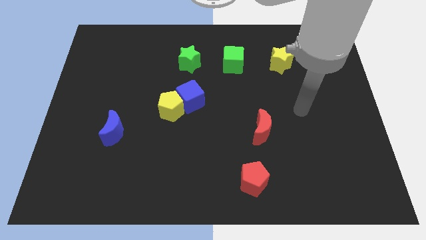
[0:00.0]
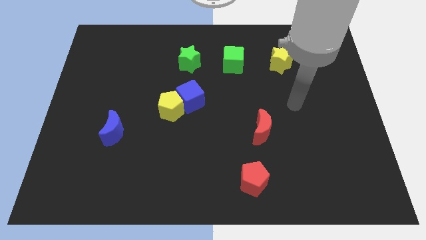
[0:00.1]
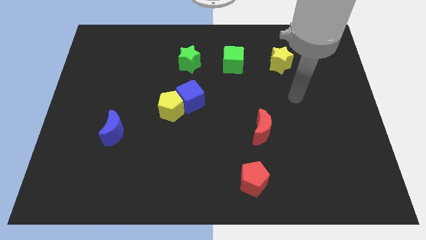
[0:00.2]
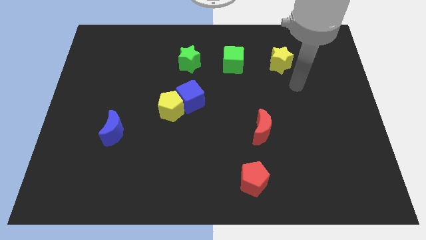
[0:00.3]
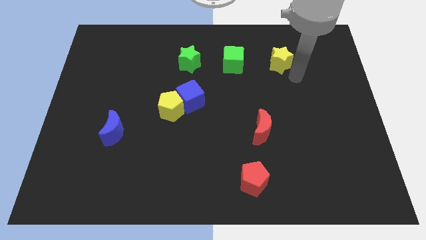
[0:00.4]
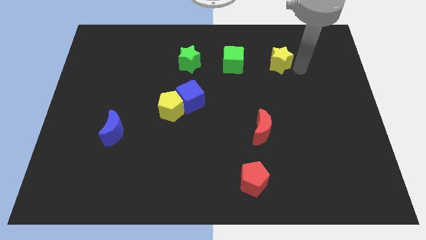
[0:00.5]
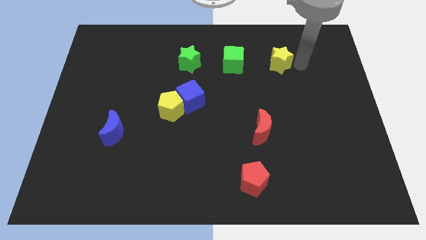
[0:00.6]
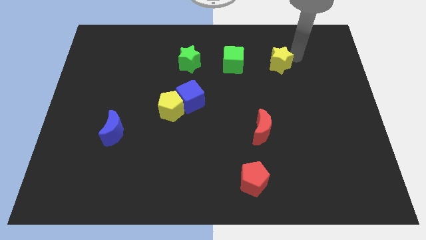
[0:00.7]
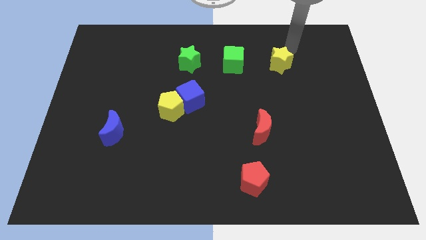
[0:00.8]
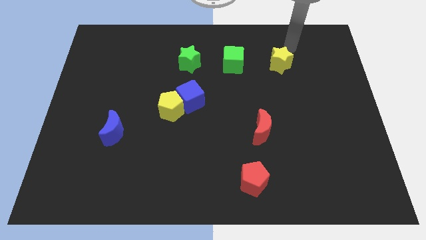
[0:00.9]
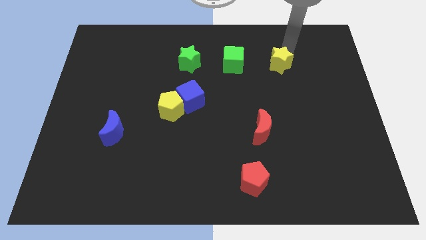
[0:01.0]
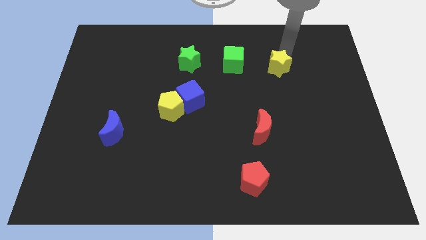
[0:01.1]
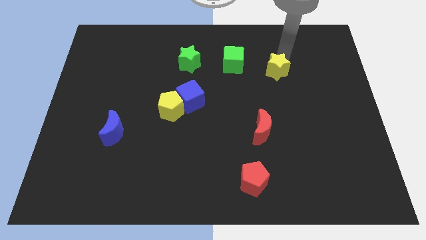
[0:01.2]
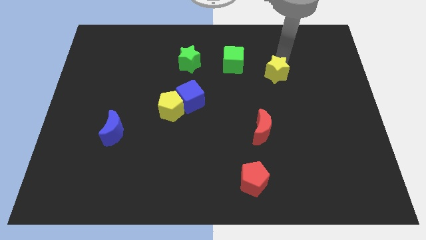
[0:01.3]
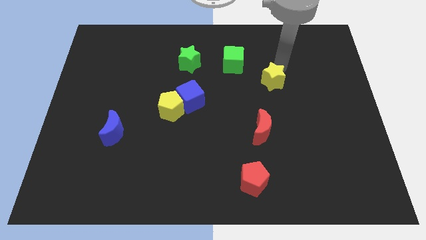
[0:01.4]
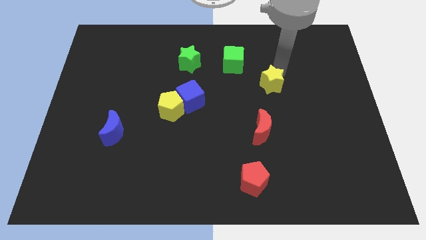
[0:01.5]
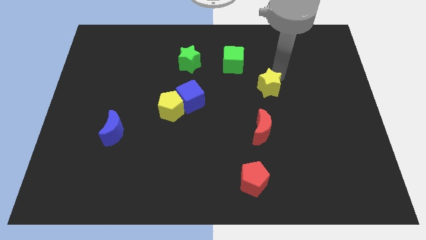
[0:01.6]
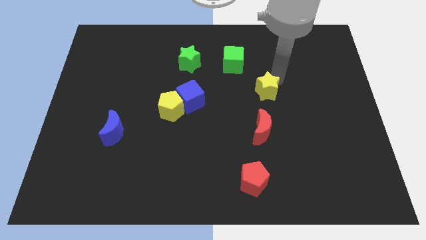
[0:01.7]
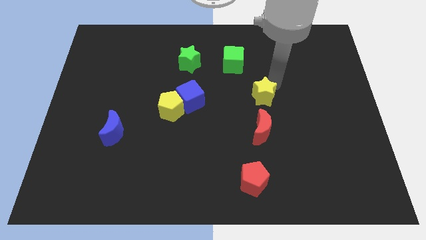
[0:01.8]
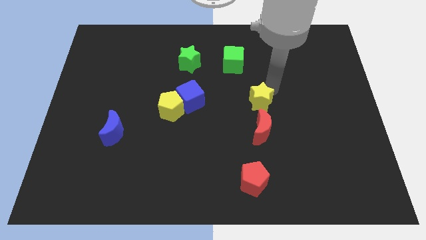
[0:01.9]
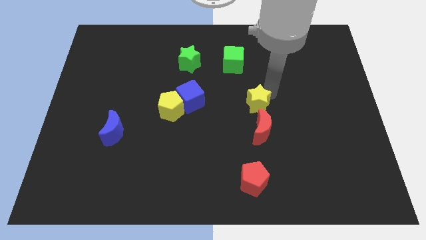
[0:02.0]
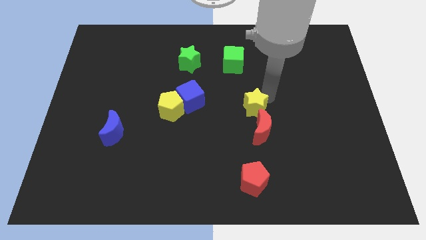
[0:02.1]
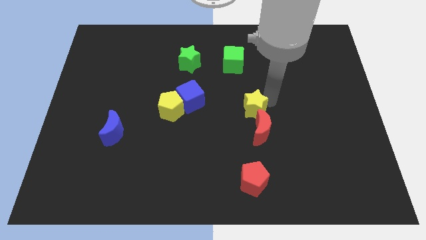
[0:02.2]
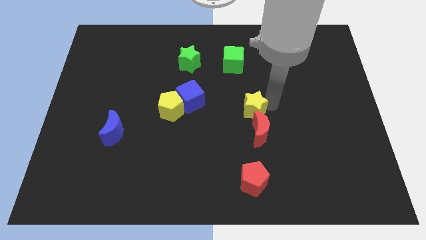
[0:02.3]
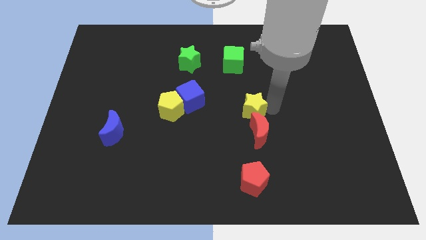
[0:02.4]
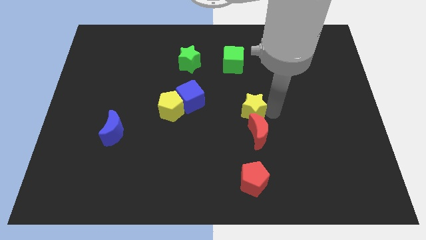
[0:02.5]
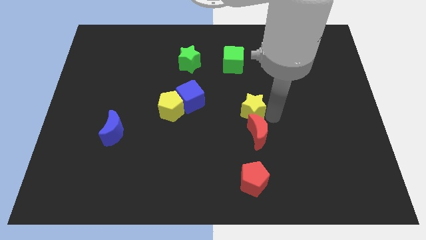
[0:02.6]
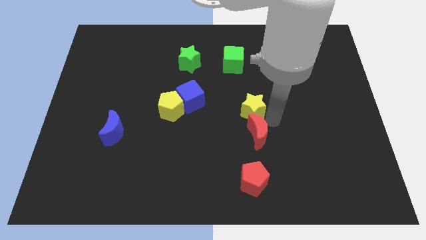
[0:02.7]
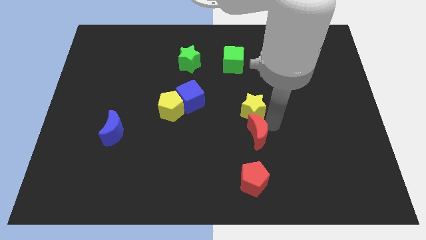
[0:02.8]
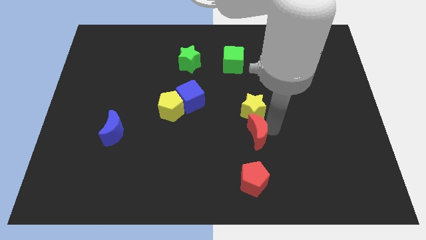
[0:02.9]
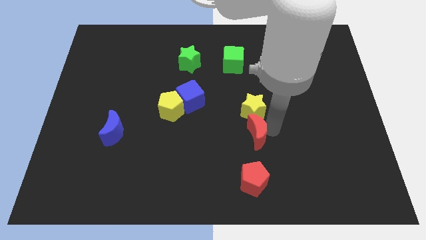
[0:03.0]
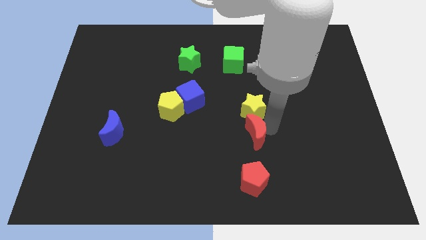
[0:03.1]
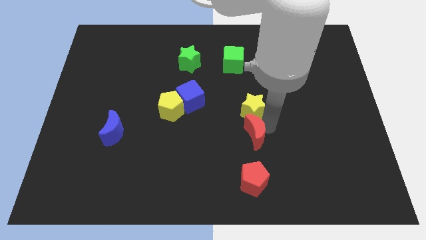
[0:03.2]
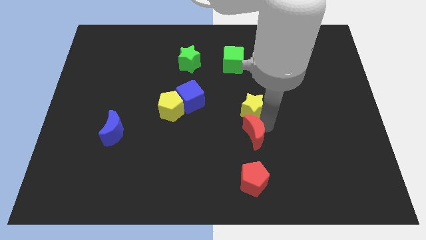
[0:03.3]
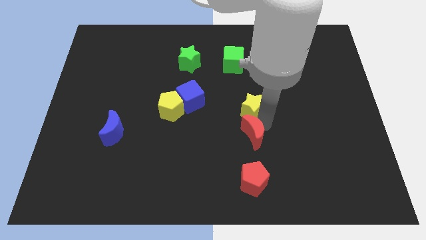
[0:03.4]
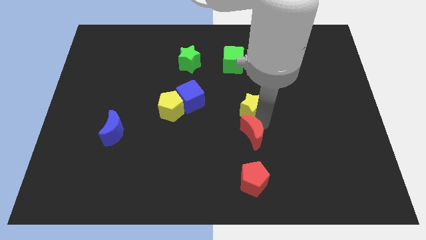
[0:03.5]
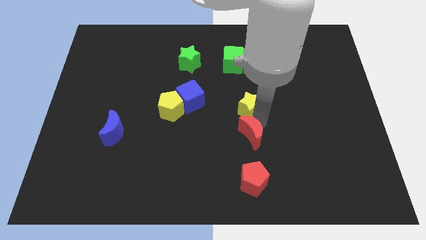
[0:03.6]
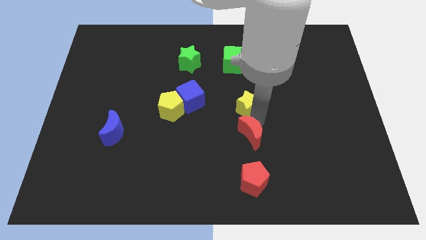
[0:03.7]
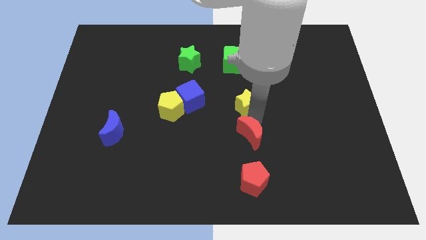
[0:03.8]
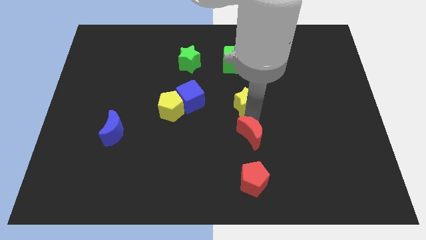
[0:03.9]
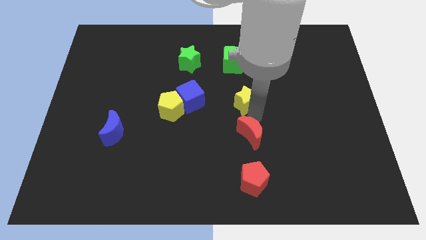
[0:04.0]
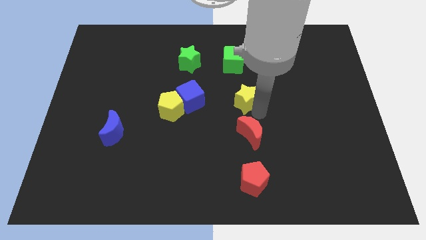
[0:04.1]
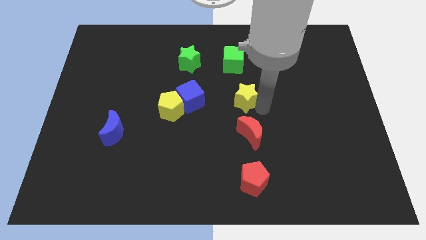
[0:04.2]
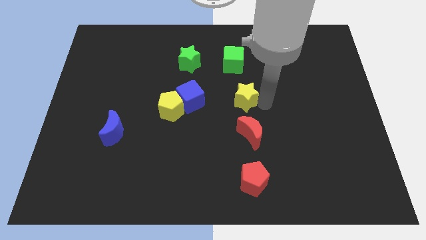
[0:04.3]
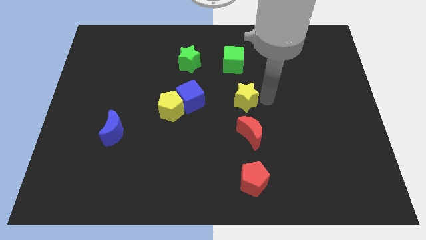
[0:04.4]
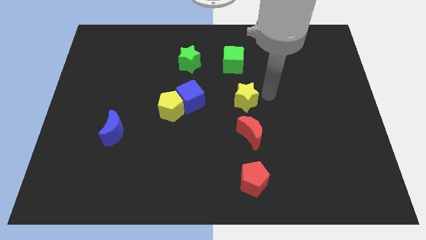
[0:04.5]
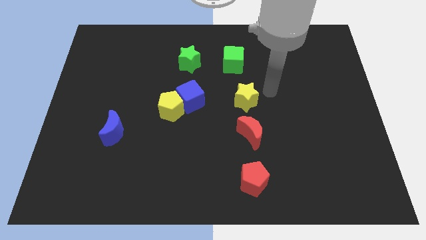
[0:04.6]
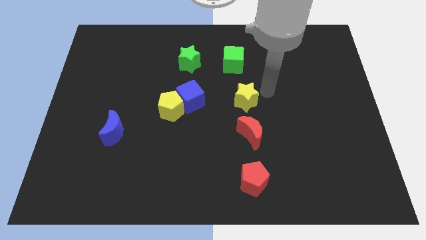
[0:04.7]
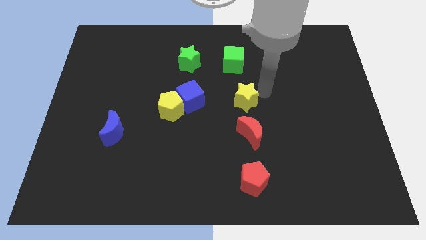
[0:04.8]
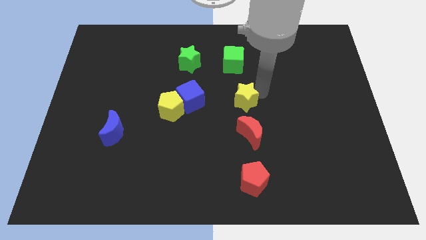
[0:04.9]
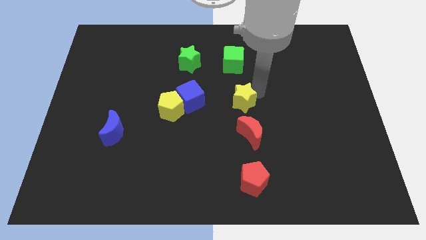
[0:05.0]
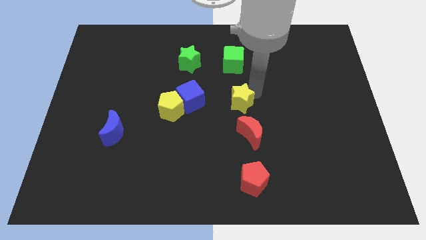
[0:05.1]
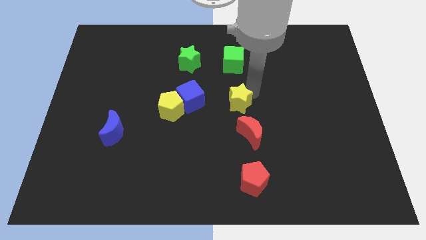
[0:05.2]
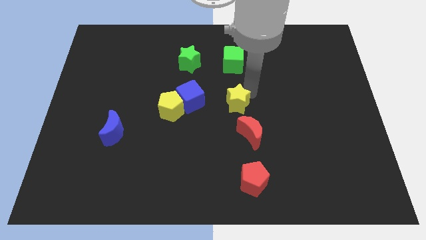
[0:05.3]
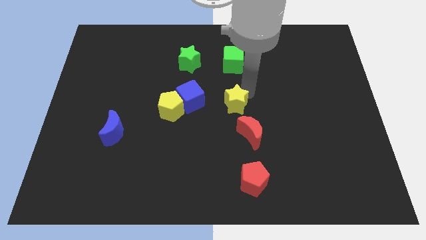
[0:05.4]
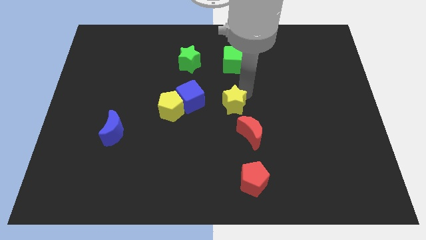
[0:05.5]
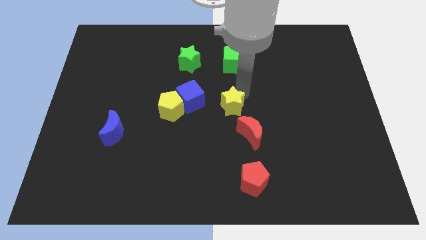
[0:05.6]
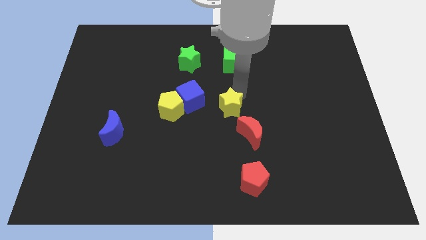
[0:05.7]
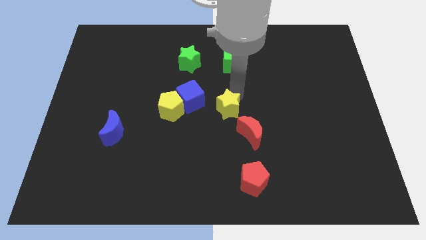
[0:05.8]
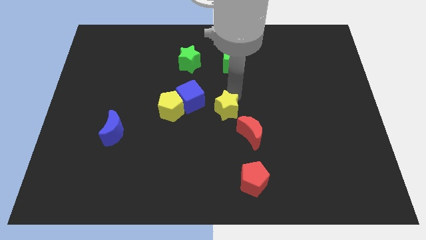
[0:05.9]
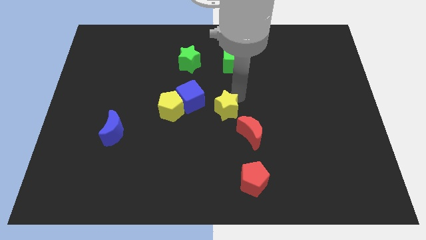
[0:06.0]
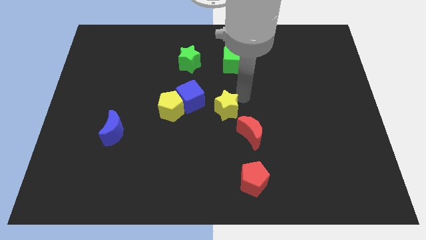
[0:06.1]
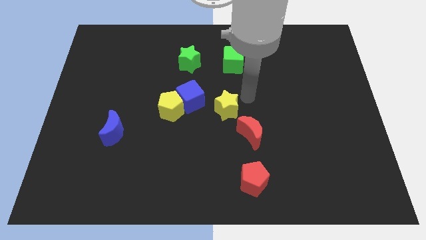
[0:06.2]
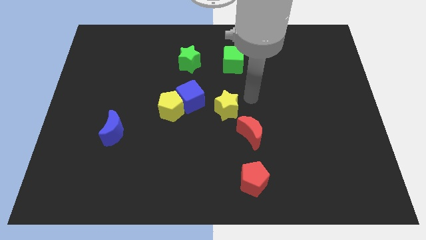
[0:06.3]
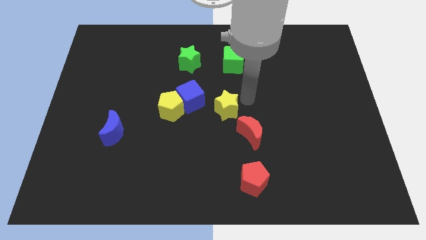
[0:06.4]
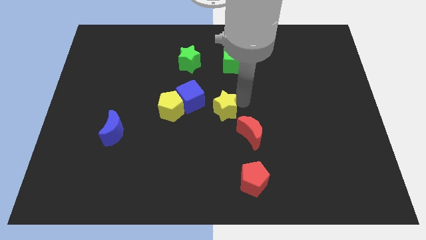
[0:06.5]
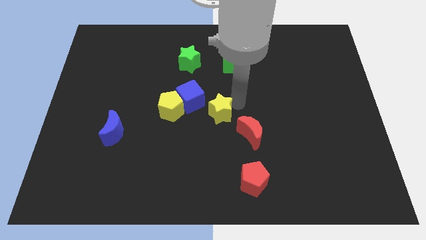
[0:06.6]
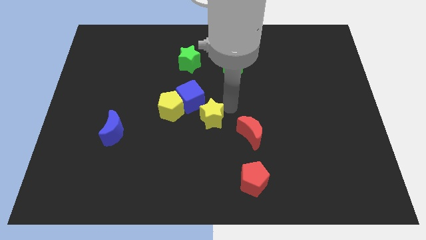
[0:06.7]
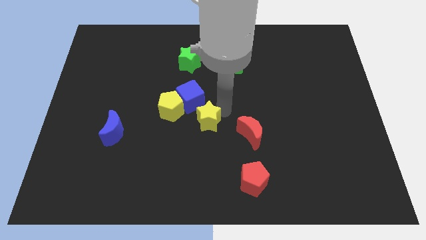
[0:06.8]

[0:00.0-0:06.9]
move the yellow star diagonally down and to the right of the yellow pentagon
